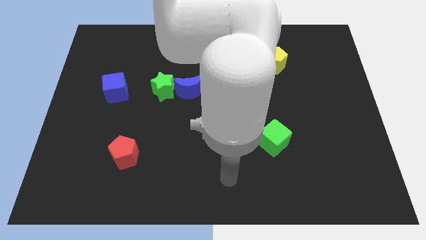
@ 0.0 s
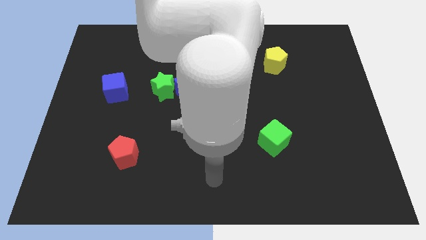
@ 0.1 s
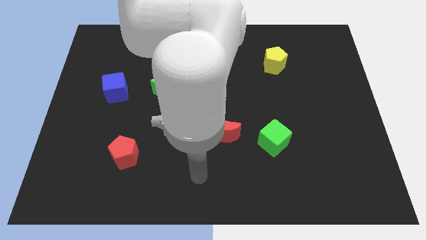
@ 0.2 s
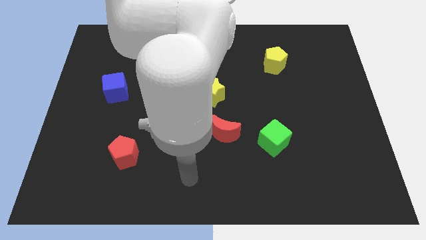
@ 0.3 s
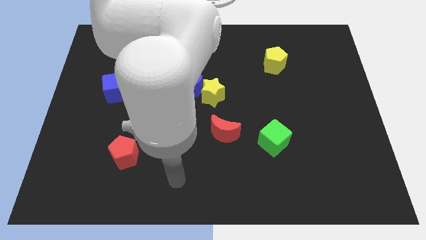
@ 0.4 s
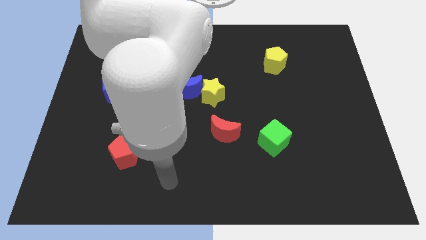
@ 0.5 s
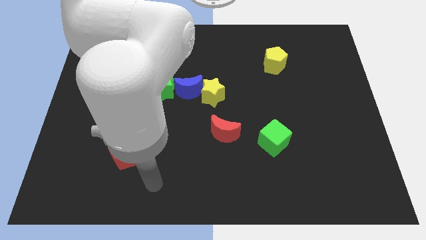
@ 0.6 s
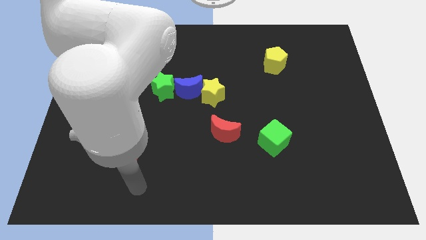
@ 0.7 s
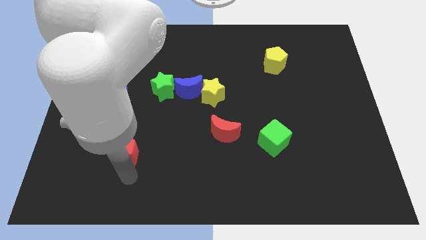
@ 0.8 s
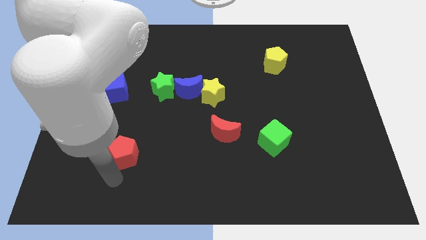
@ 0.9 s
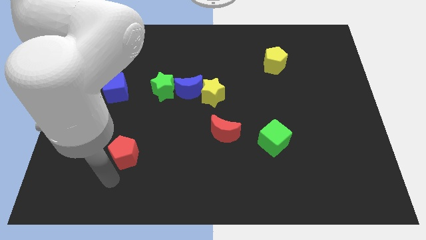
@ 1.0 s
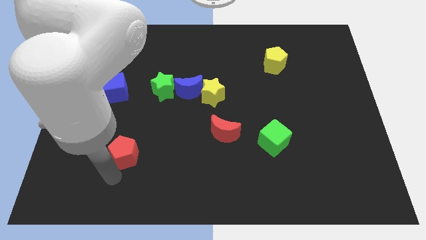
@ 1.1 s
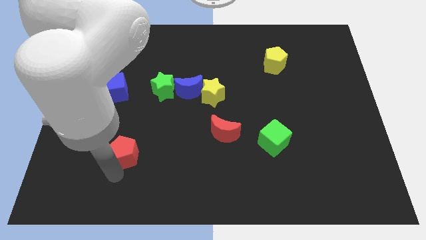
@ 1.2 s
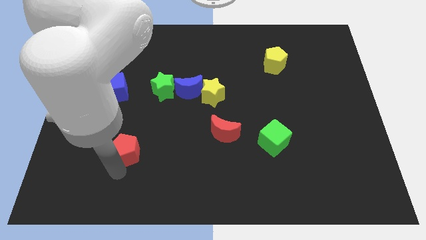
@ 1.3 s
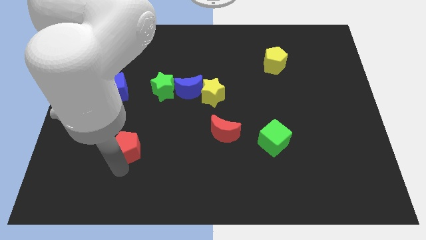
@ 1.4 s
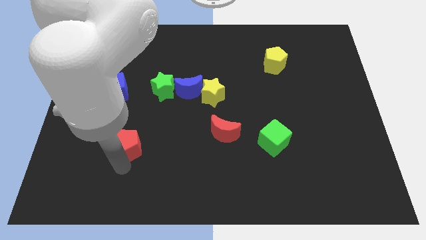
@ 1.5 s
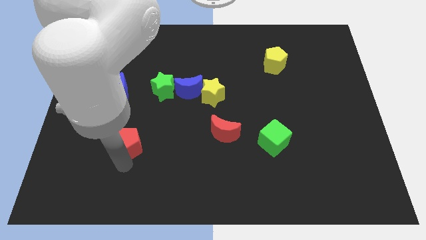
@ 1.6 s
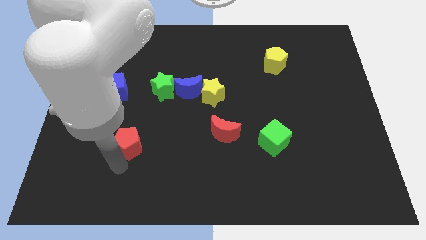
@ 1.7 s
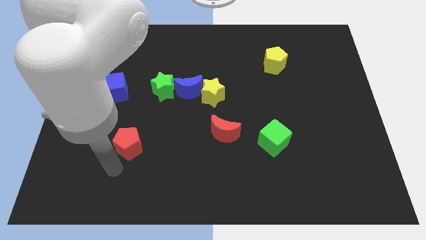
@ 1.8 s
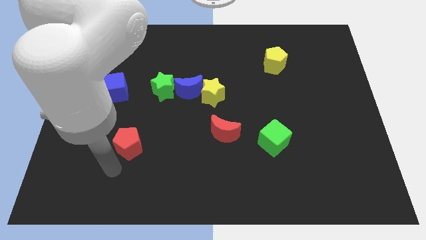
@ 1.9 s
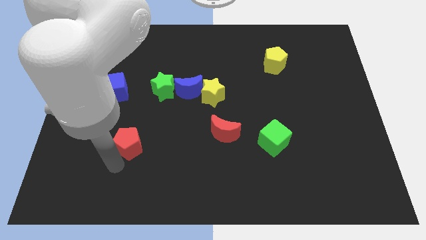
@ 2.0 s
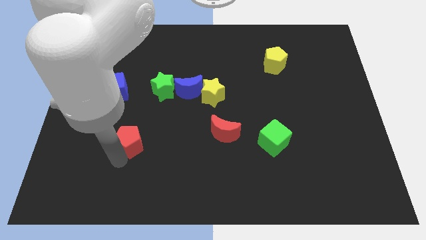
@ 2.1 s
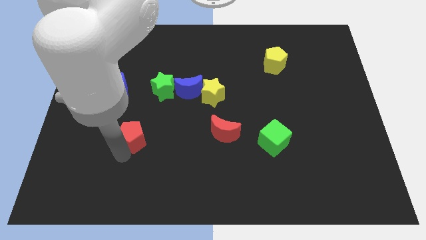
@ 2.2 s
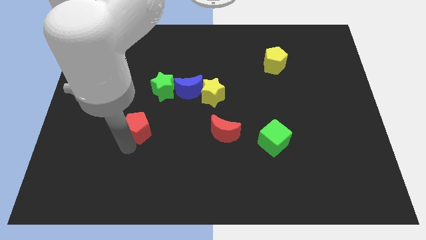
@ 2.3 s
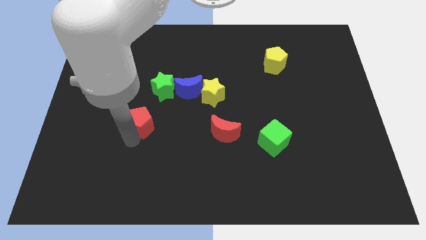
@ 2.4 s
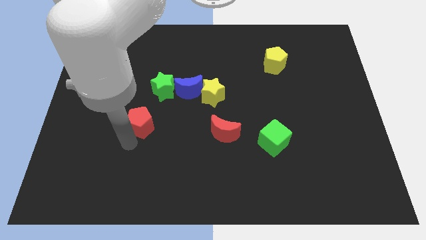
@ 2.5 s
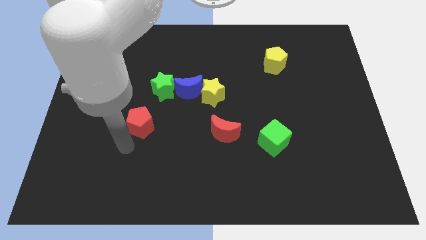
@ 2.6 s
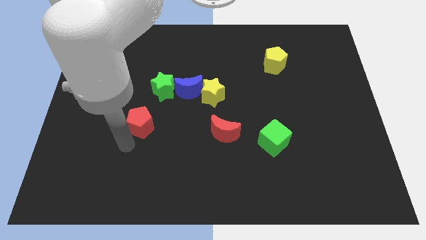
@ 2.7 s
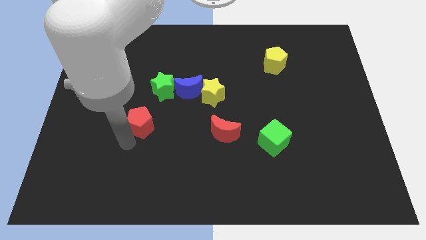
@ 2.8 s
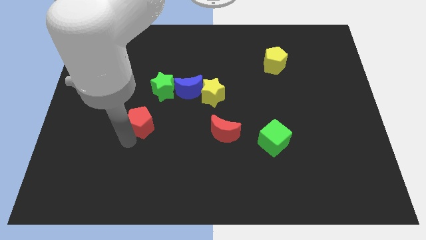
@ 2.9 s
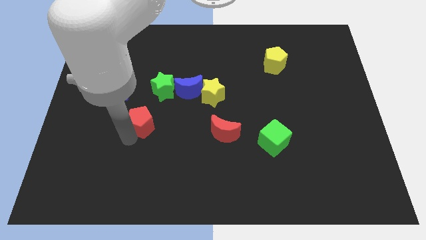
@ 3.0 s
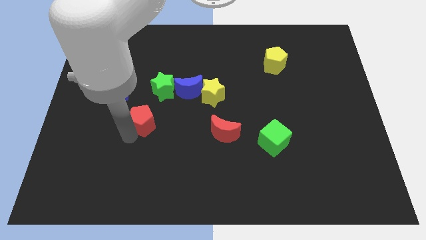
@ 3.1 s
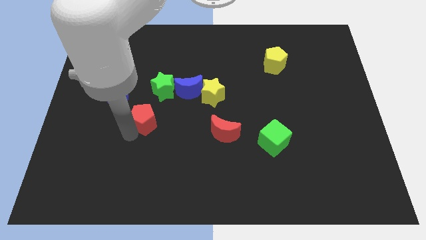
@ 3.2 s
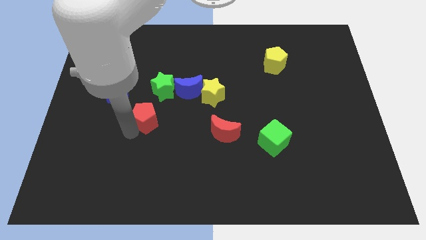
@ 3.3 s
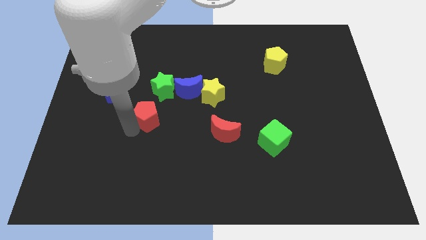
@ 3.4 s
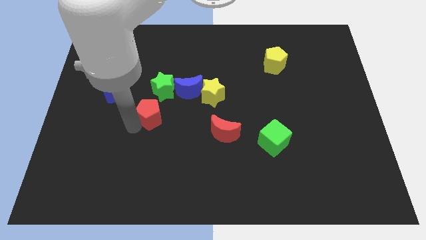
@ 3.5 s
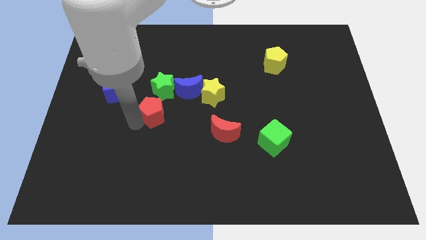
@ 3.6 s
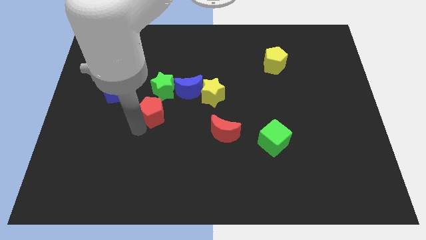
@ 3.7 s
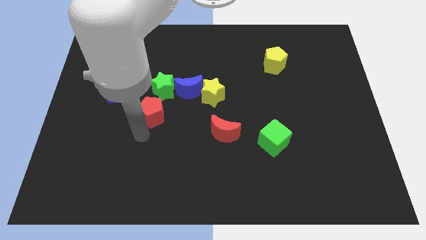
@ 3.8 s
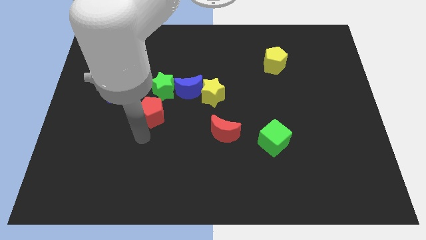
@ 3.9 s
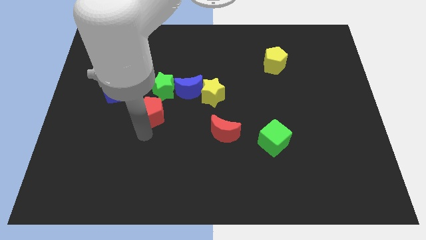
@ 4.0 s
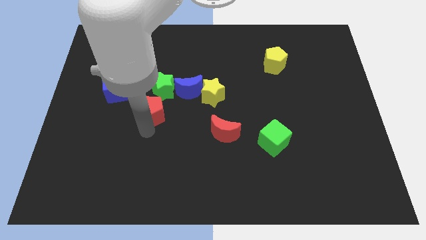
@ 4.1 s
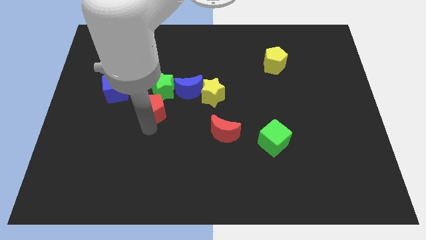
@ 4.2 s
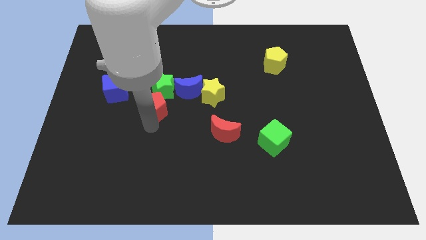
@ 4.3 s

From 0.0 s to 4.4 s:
push the red pentagon to the green star

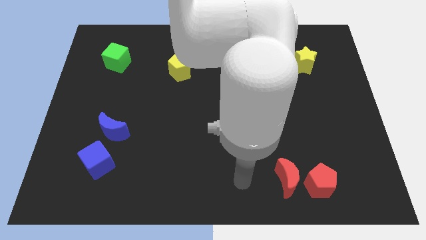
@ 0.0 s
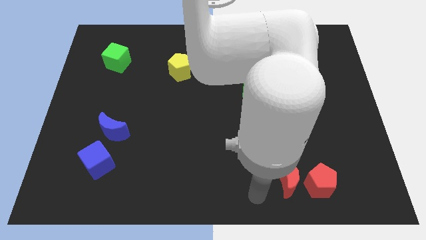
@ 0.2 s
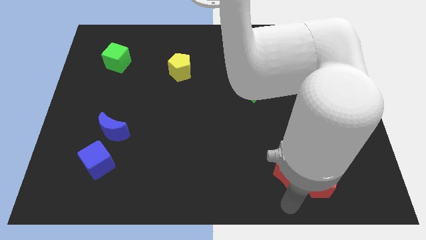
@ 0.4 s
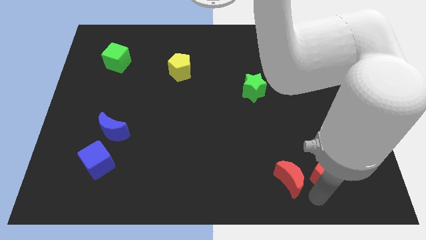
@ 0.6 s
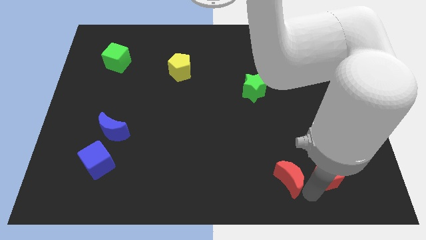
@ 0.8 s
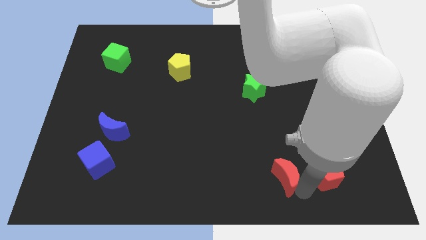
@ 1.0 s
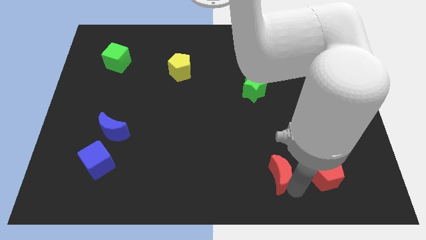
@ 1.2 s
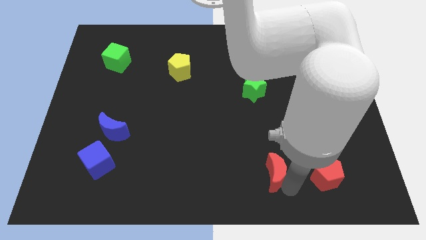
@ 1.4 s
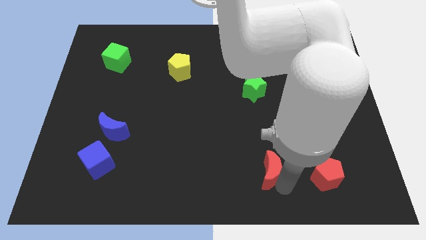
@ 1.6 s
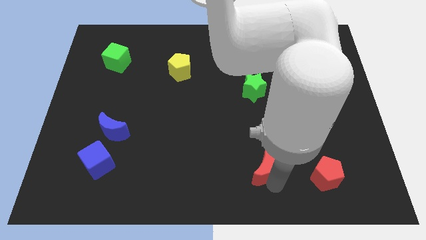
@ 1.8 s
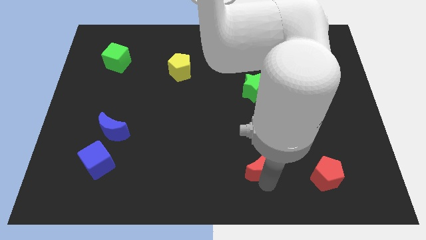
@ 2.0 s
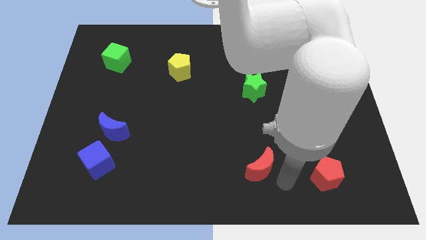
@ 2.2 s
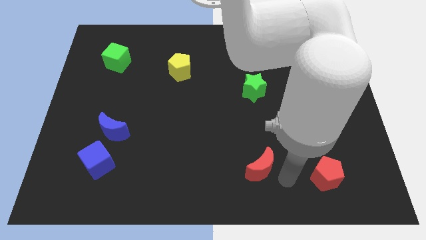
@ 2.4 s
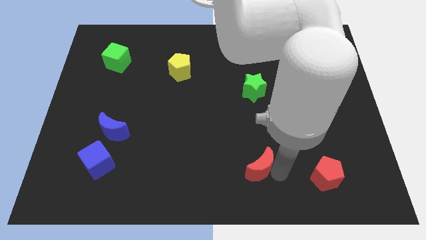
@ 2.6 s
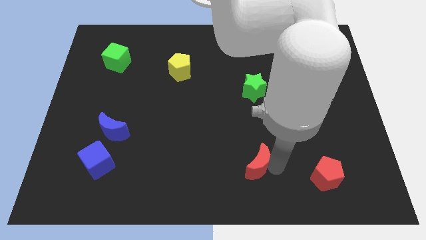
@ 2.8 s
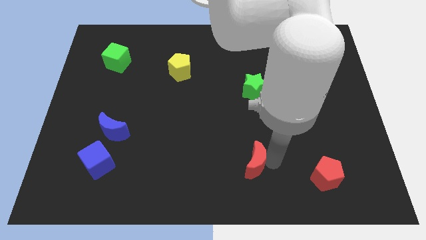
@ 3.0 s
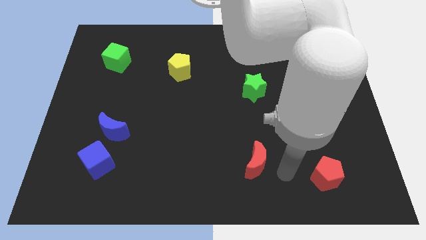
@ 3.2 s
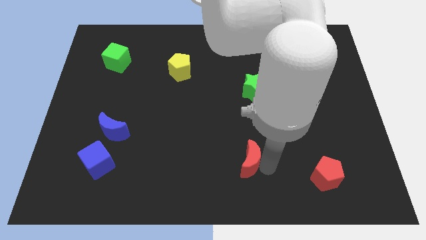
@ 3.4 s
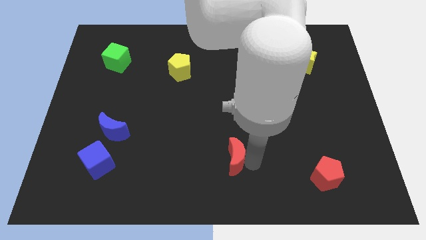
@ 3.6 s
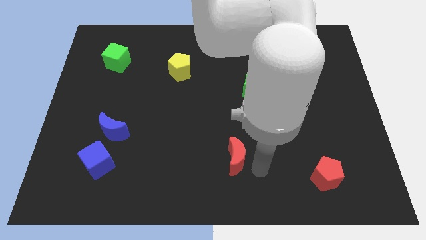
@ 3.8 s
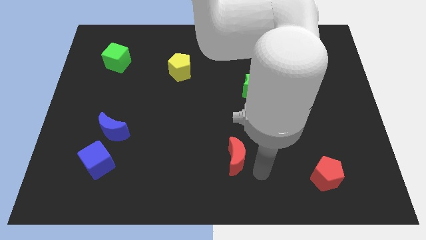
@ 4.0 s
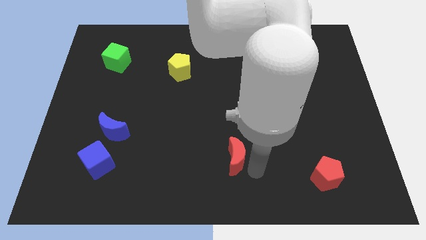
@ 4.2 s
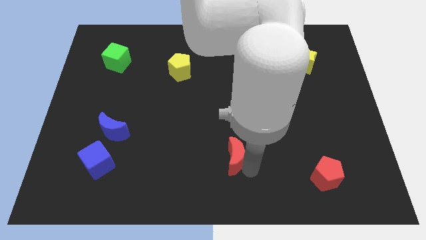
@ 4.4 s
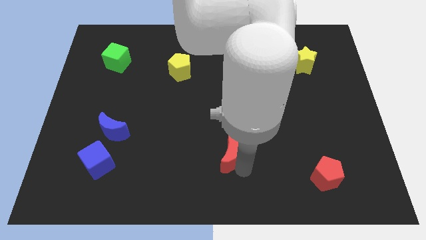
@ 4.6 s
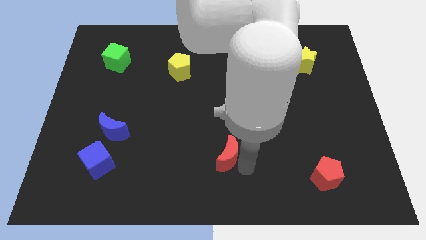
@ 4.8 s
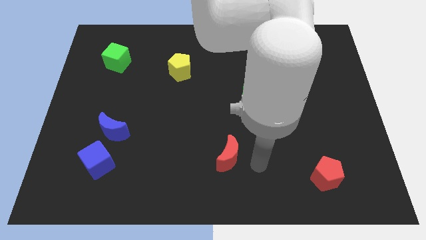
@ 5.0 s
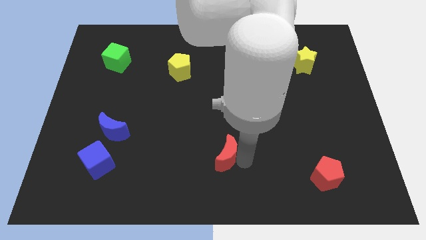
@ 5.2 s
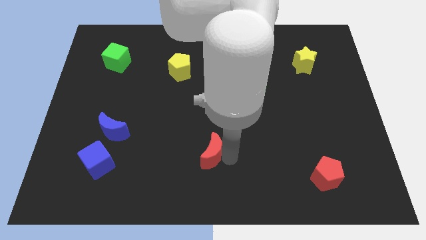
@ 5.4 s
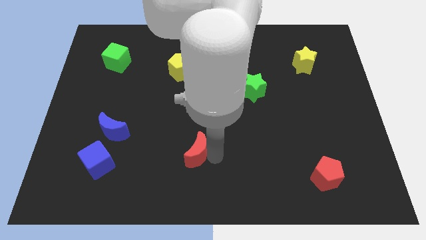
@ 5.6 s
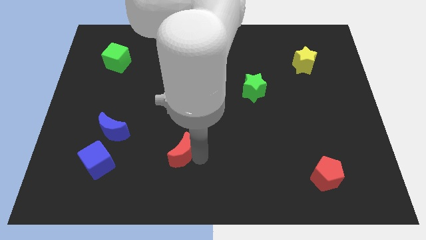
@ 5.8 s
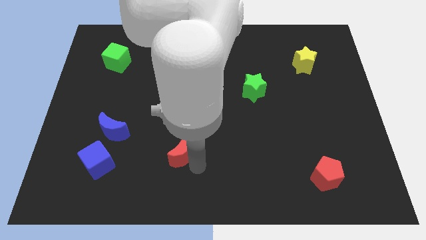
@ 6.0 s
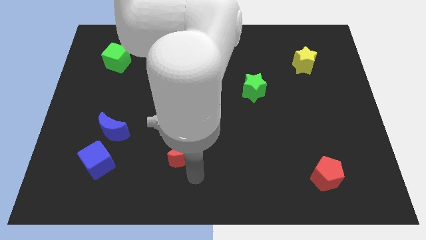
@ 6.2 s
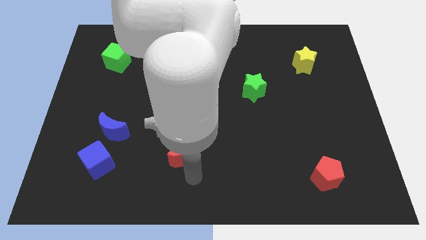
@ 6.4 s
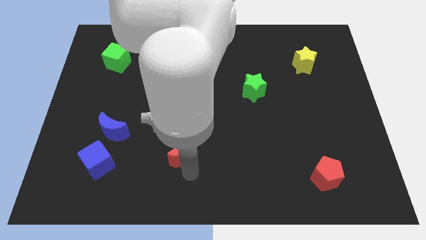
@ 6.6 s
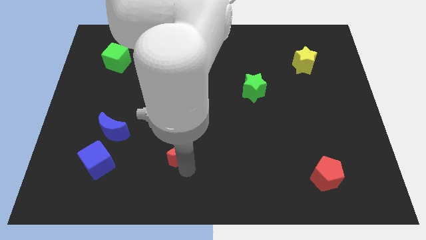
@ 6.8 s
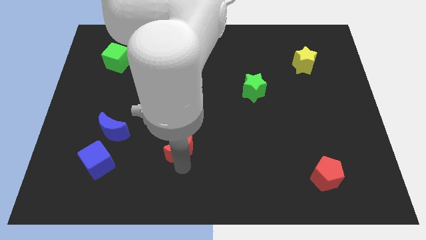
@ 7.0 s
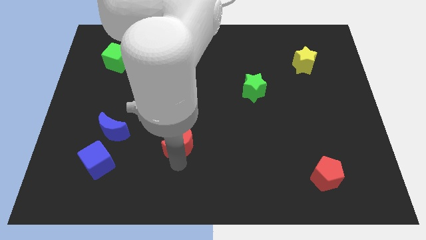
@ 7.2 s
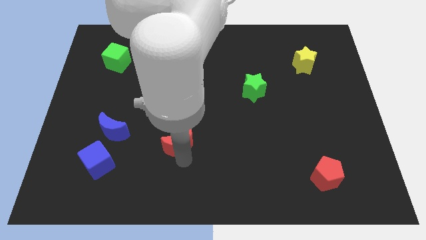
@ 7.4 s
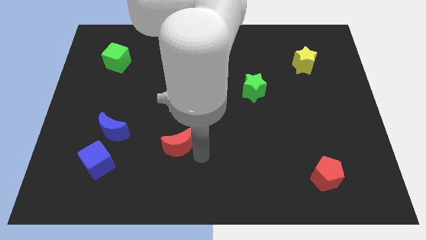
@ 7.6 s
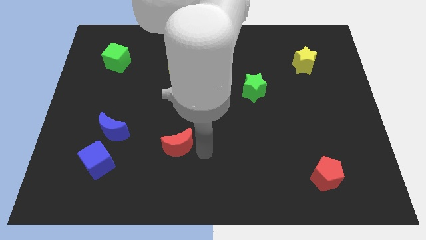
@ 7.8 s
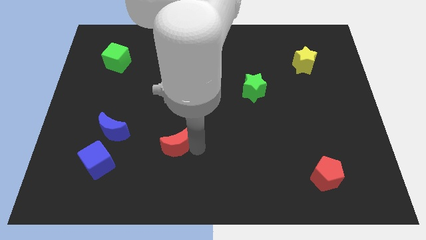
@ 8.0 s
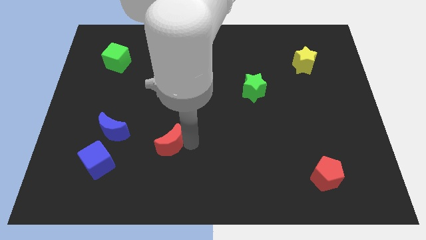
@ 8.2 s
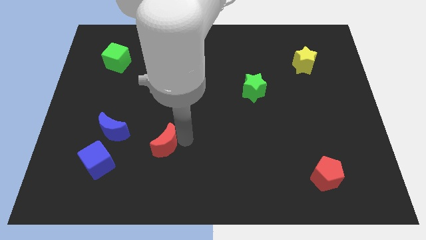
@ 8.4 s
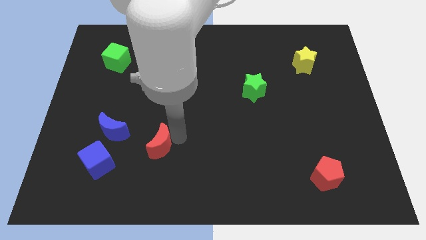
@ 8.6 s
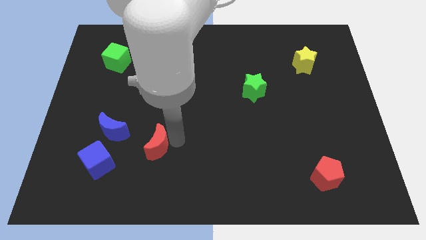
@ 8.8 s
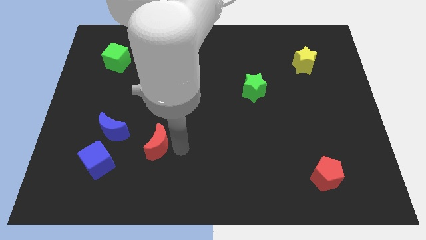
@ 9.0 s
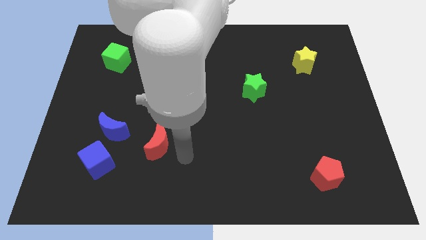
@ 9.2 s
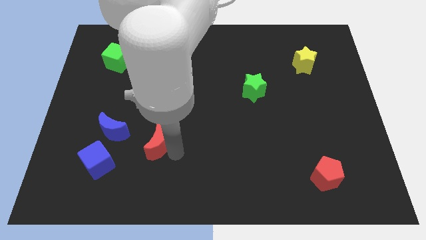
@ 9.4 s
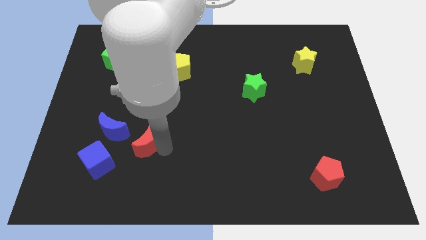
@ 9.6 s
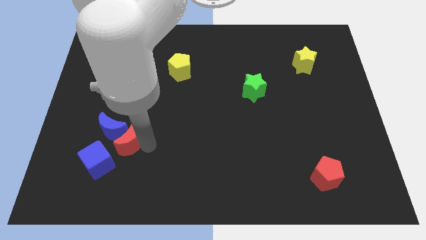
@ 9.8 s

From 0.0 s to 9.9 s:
slide the red moon close to the blue moon
